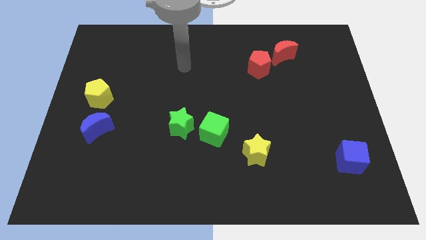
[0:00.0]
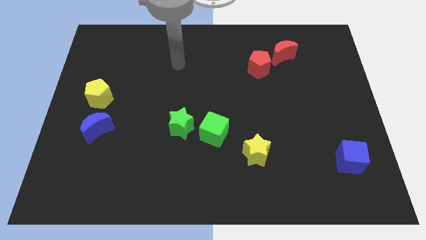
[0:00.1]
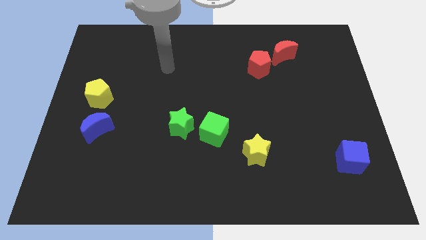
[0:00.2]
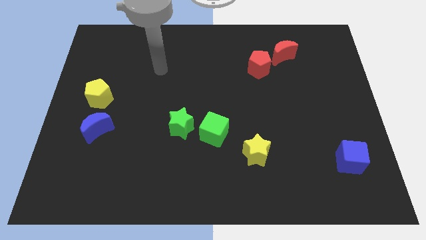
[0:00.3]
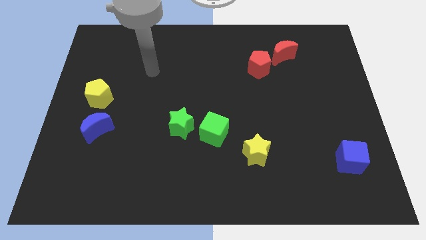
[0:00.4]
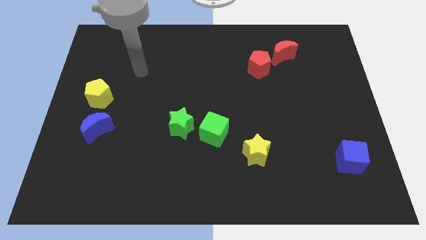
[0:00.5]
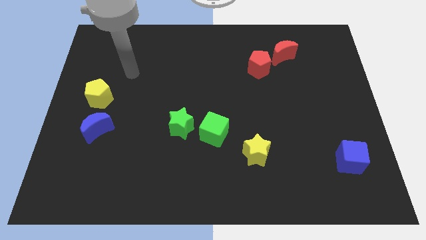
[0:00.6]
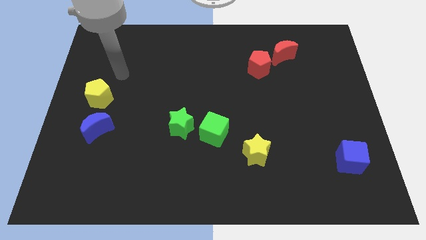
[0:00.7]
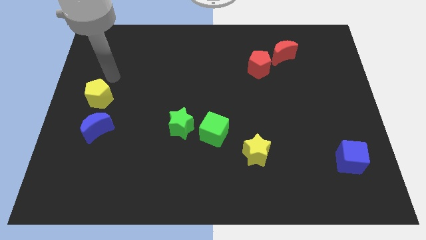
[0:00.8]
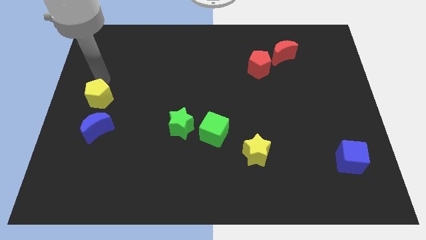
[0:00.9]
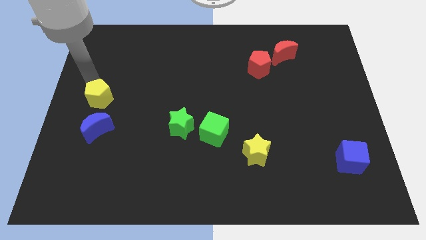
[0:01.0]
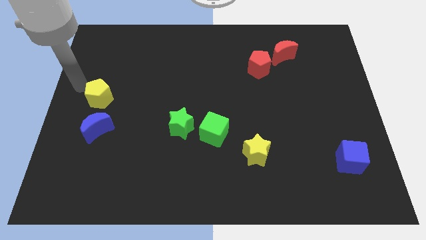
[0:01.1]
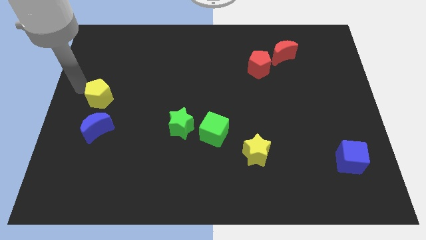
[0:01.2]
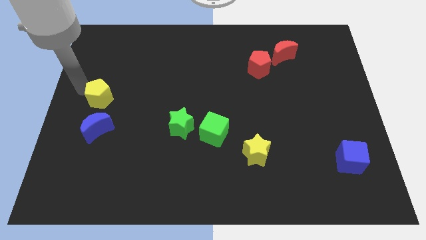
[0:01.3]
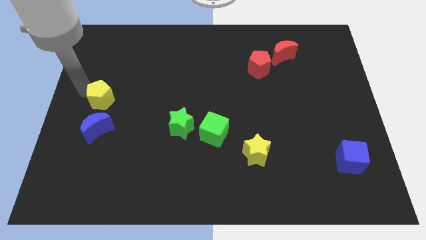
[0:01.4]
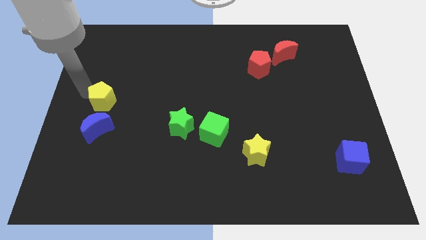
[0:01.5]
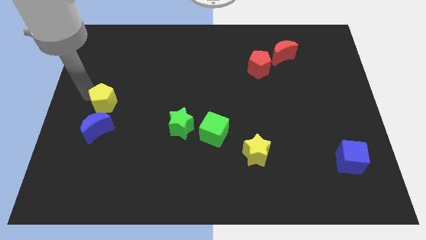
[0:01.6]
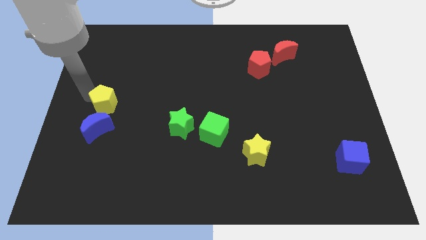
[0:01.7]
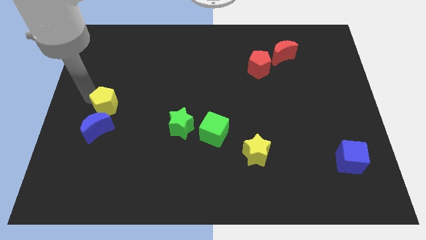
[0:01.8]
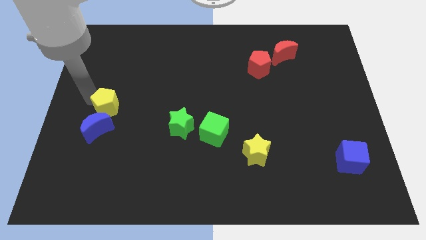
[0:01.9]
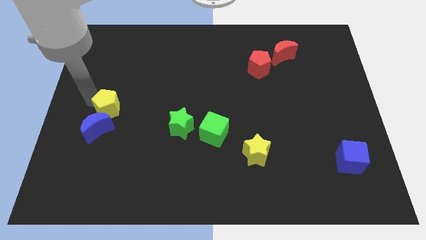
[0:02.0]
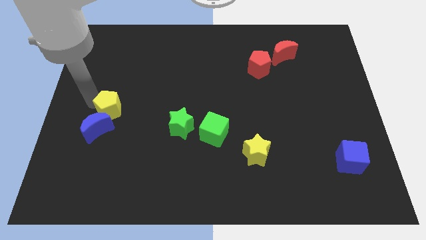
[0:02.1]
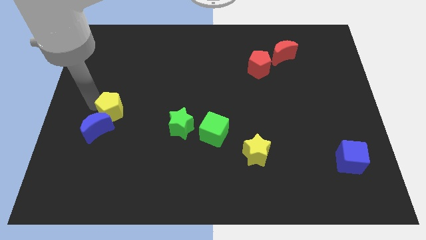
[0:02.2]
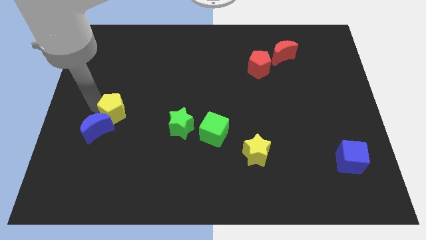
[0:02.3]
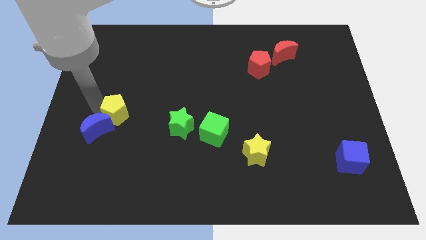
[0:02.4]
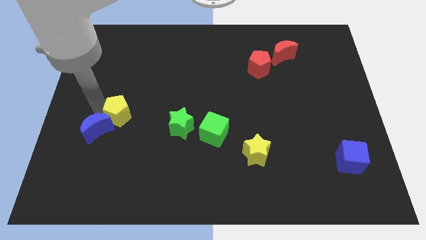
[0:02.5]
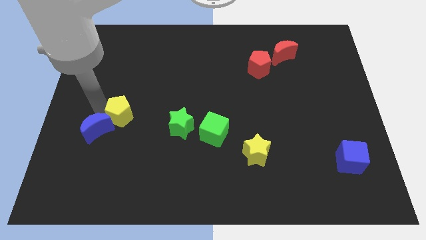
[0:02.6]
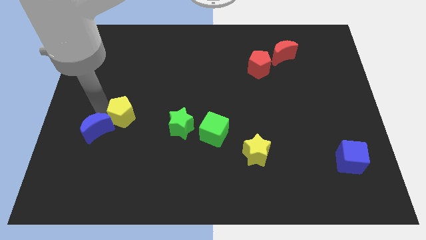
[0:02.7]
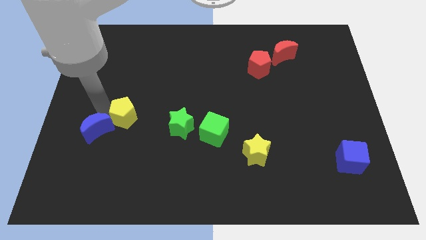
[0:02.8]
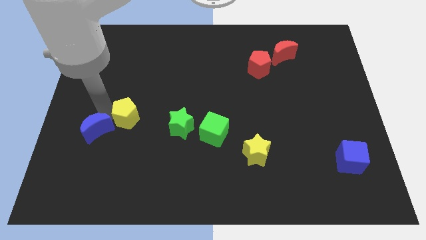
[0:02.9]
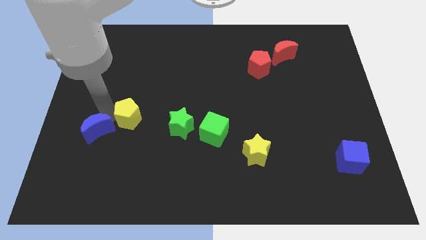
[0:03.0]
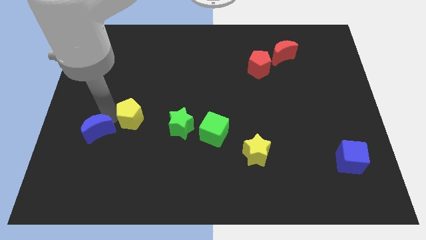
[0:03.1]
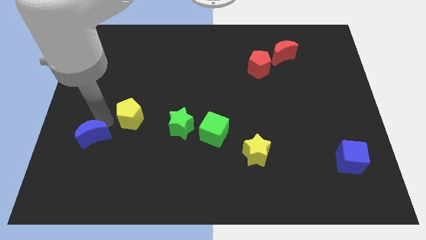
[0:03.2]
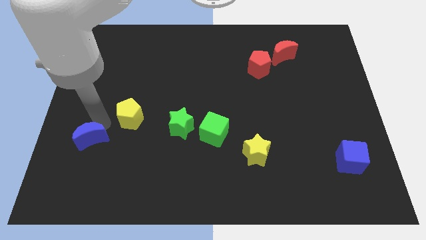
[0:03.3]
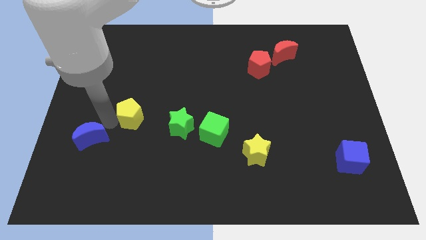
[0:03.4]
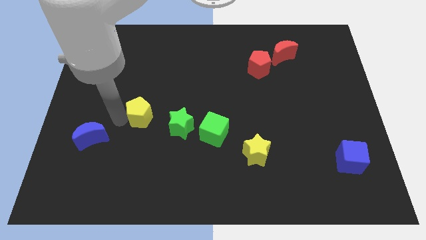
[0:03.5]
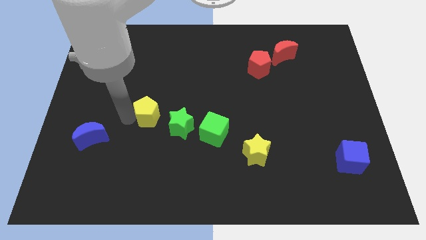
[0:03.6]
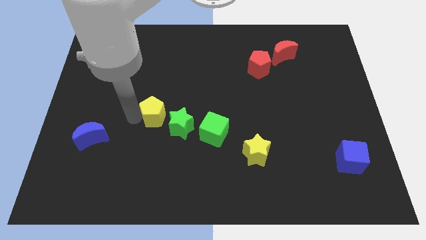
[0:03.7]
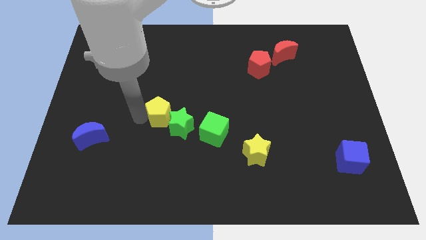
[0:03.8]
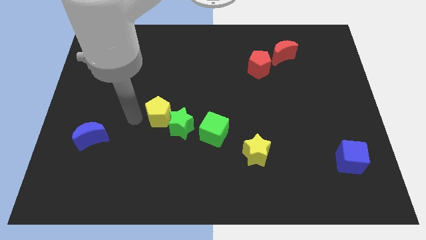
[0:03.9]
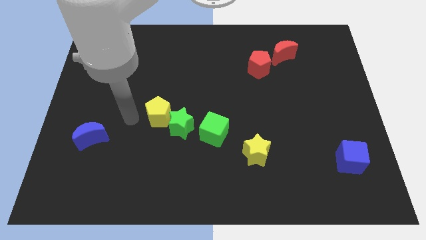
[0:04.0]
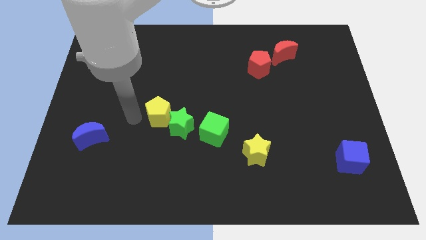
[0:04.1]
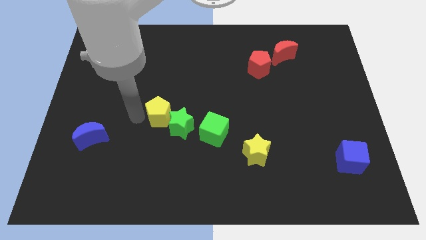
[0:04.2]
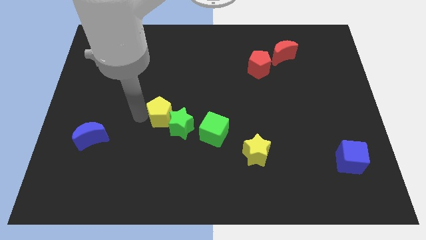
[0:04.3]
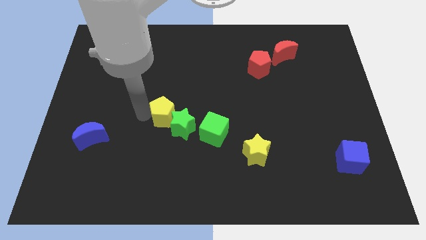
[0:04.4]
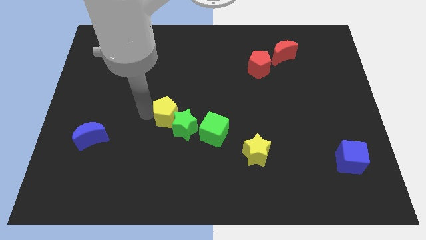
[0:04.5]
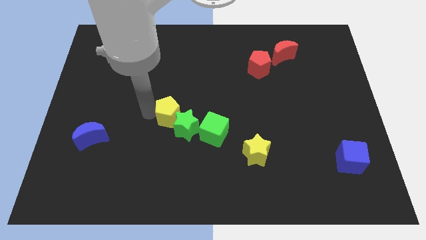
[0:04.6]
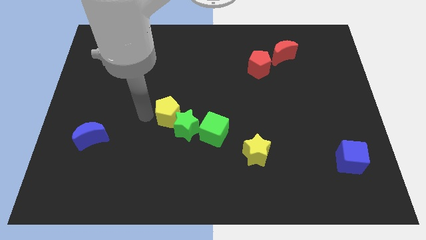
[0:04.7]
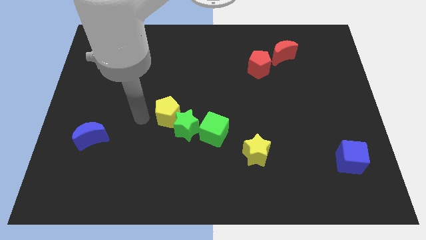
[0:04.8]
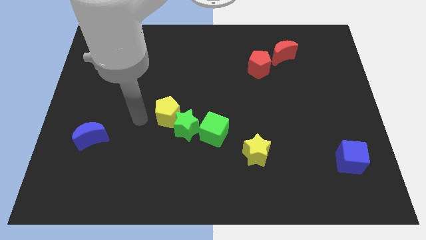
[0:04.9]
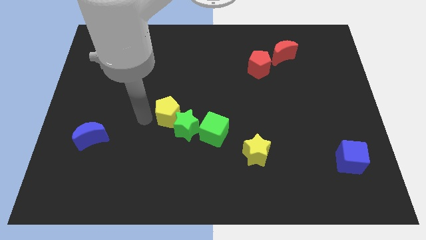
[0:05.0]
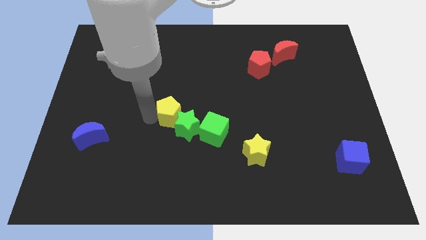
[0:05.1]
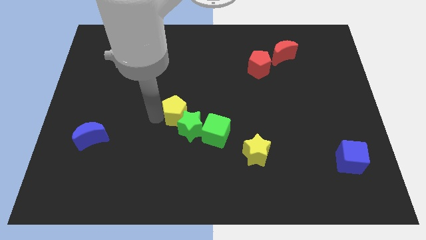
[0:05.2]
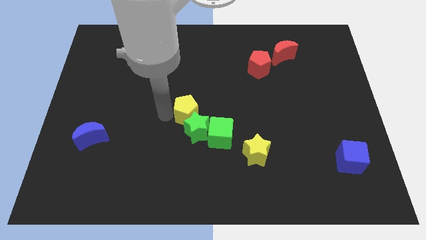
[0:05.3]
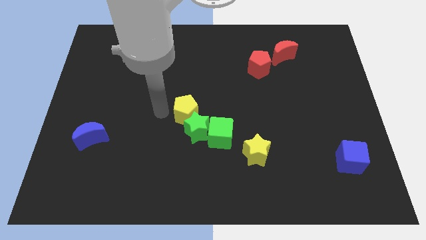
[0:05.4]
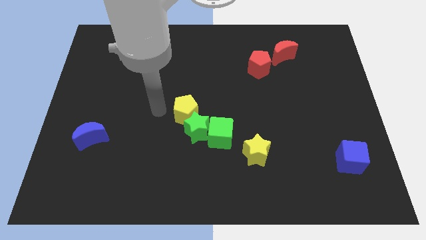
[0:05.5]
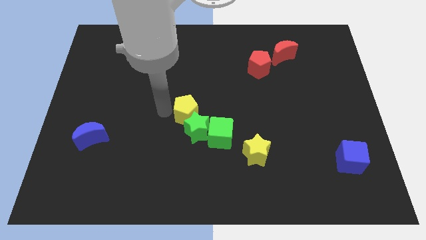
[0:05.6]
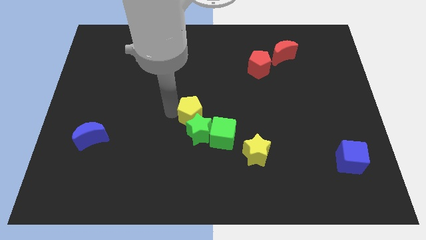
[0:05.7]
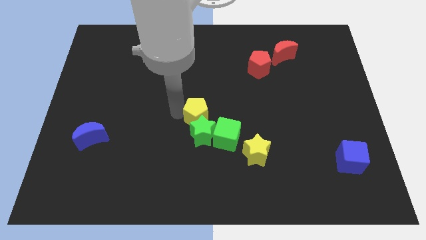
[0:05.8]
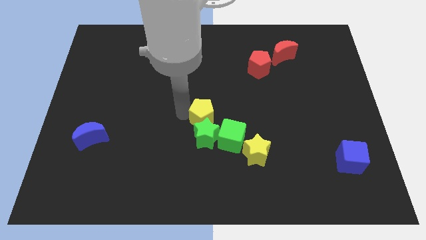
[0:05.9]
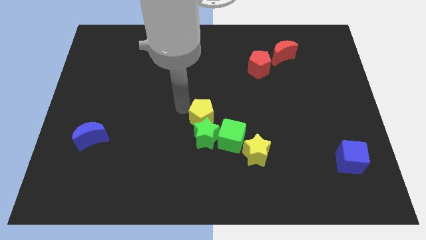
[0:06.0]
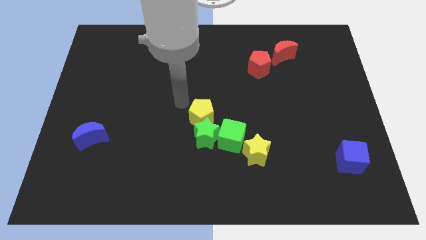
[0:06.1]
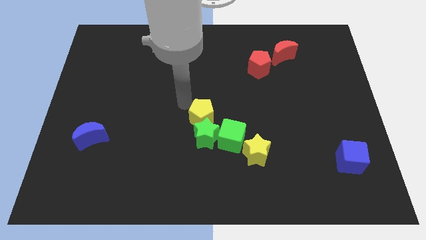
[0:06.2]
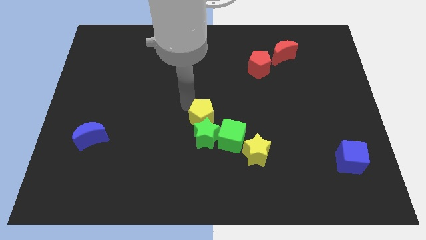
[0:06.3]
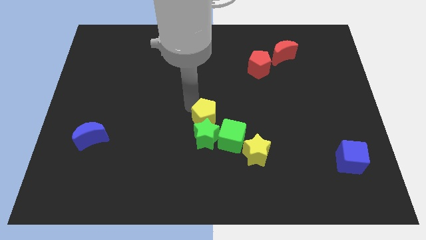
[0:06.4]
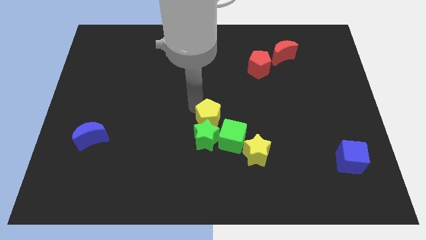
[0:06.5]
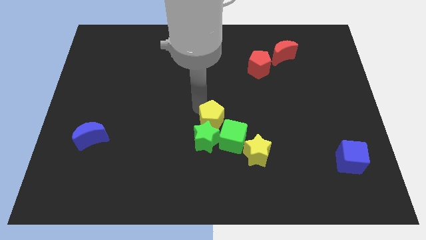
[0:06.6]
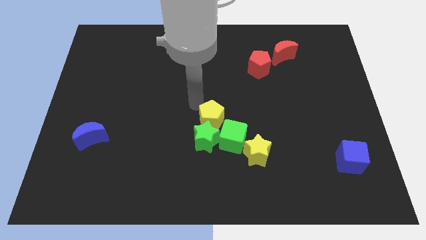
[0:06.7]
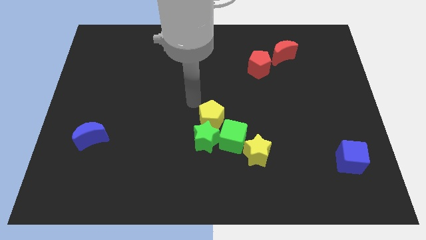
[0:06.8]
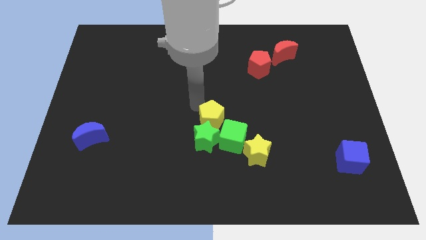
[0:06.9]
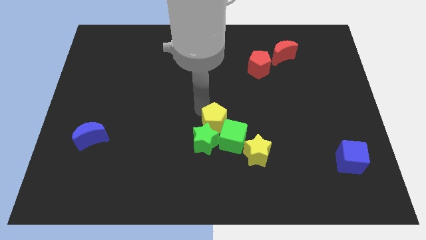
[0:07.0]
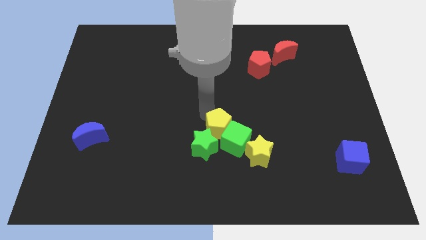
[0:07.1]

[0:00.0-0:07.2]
put the yellow pentagon close to the green cube
